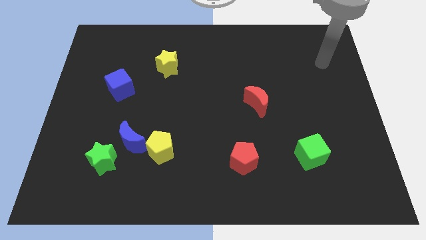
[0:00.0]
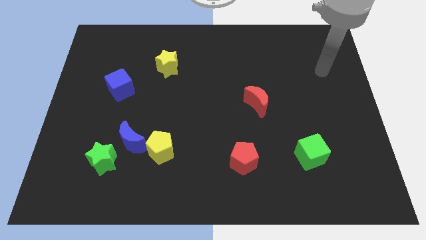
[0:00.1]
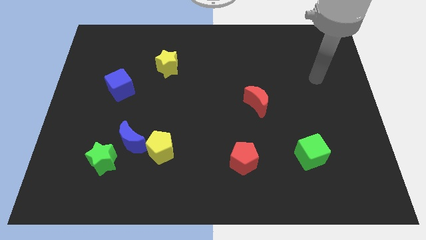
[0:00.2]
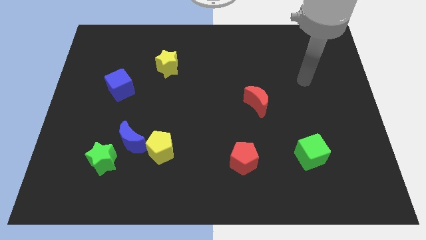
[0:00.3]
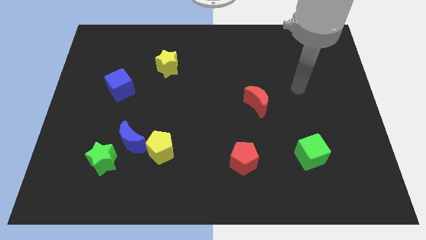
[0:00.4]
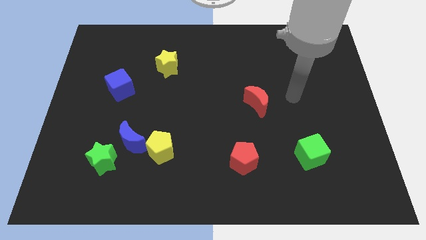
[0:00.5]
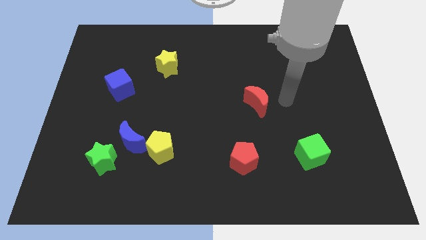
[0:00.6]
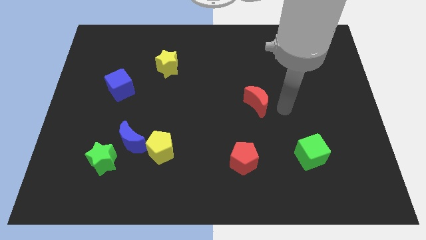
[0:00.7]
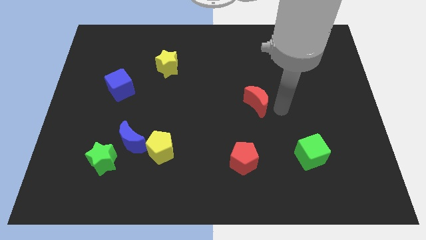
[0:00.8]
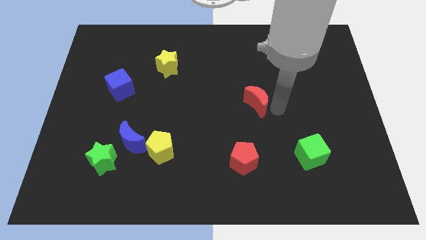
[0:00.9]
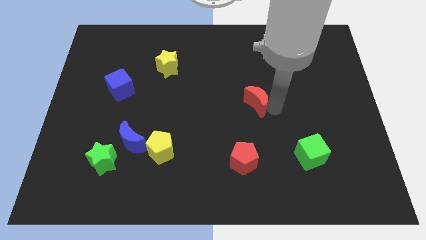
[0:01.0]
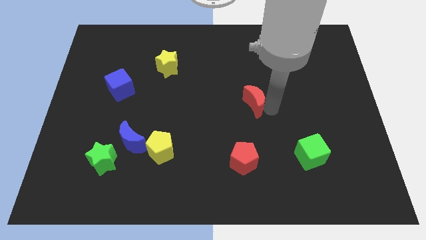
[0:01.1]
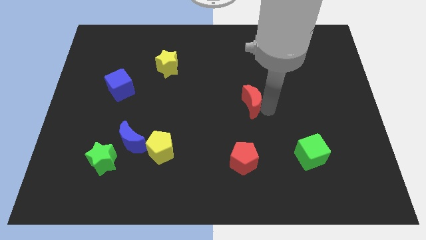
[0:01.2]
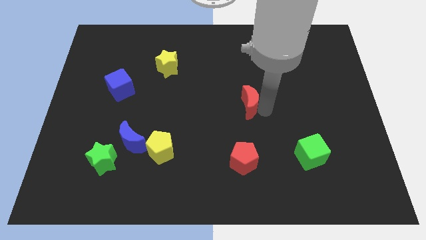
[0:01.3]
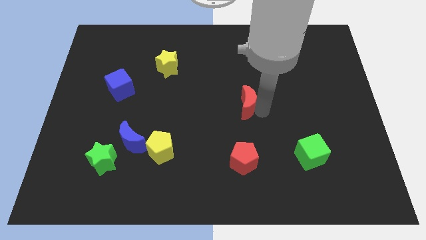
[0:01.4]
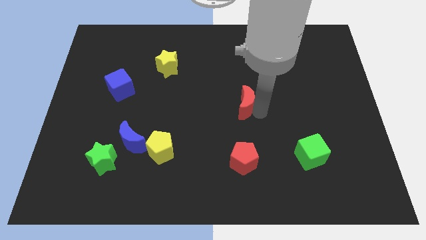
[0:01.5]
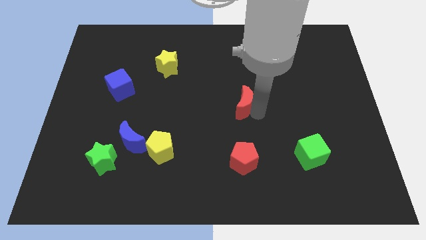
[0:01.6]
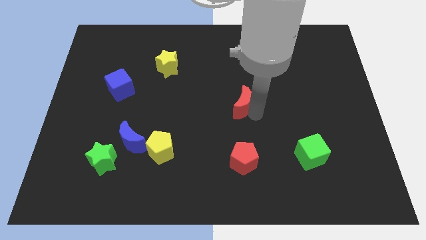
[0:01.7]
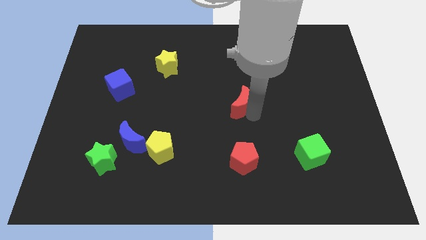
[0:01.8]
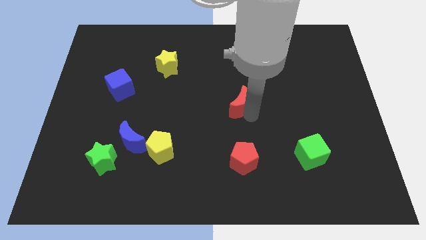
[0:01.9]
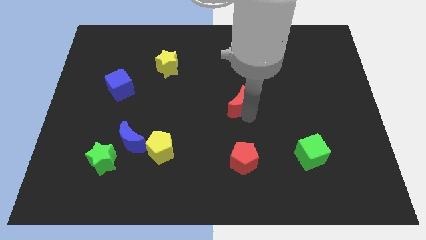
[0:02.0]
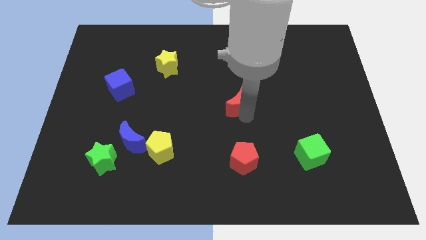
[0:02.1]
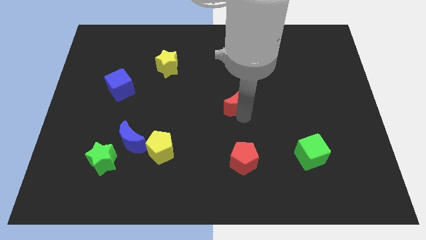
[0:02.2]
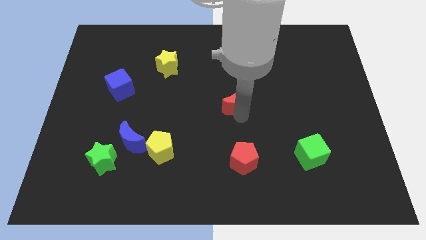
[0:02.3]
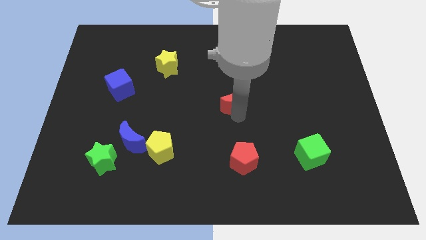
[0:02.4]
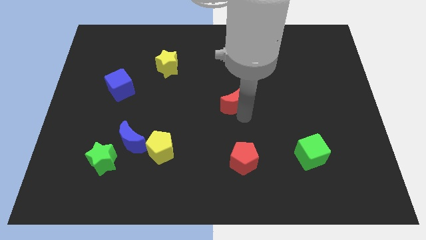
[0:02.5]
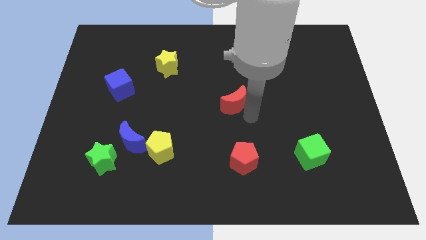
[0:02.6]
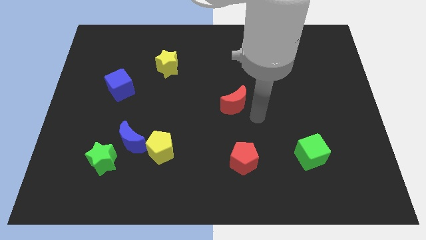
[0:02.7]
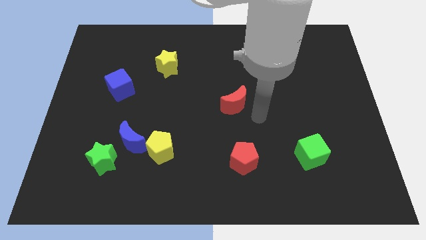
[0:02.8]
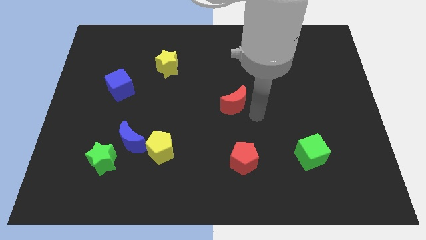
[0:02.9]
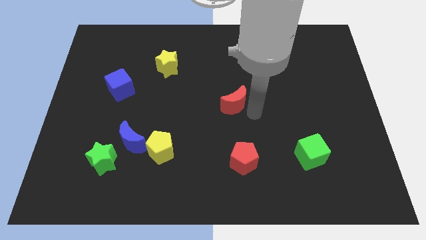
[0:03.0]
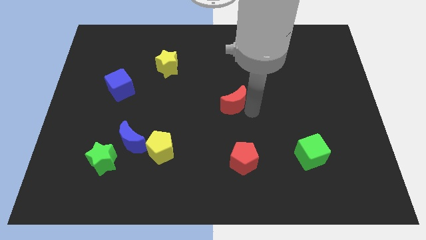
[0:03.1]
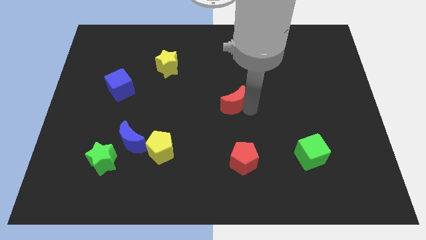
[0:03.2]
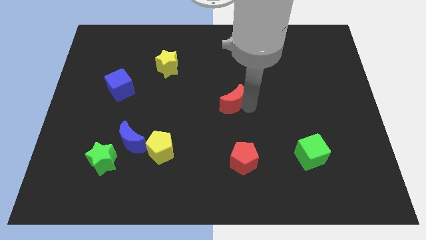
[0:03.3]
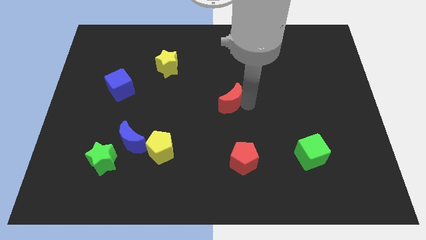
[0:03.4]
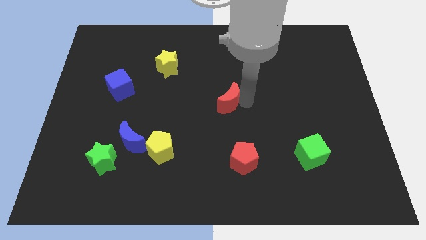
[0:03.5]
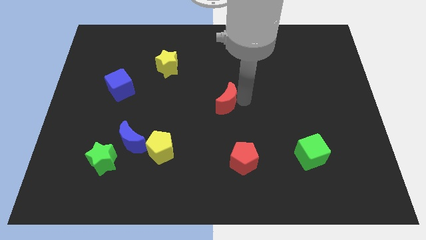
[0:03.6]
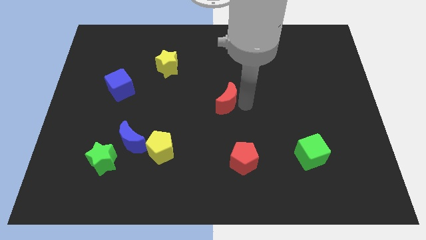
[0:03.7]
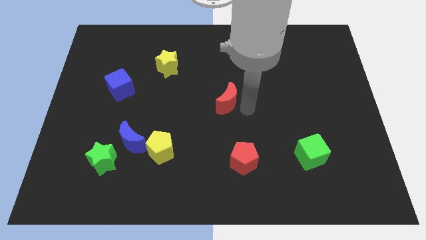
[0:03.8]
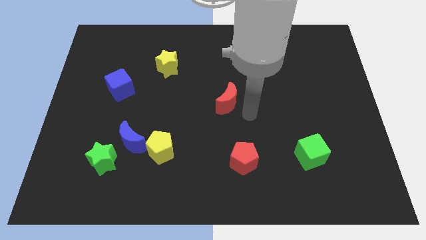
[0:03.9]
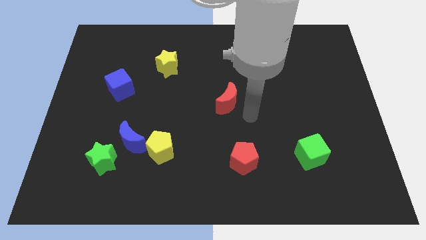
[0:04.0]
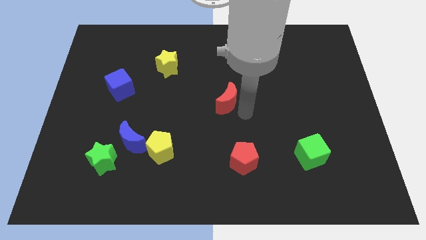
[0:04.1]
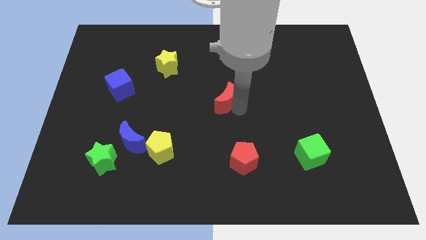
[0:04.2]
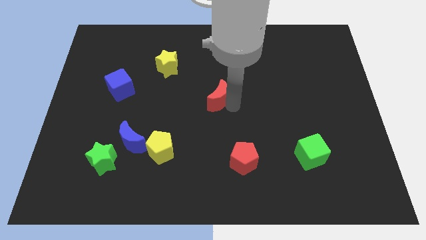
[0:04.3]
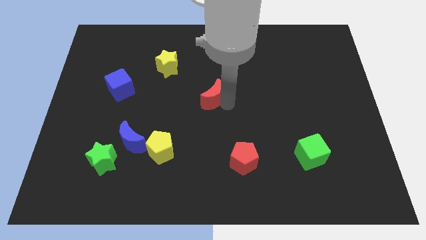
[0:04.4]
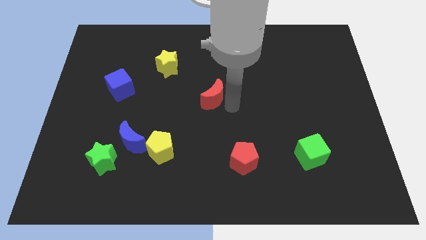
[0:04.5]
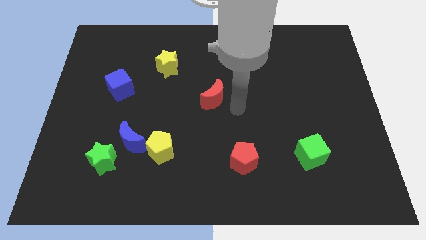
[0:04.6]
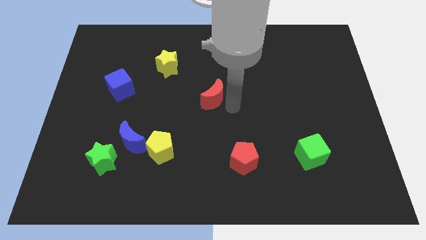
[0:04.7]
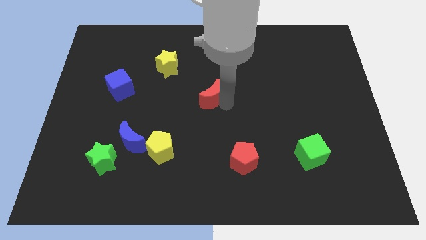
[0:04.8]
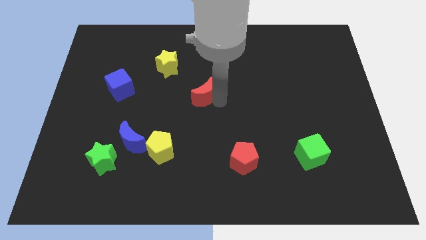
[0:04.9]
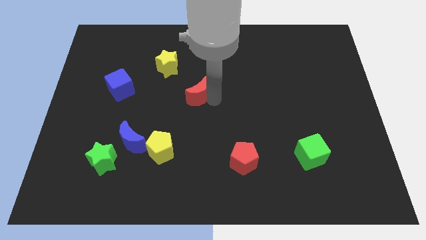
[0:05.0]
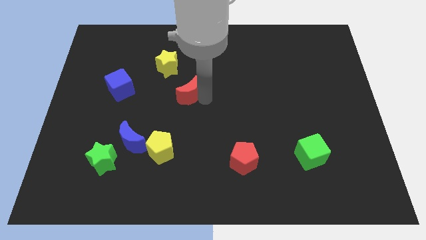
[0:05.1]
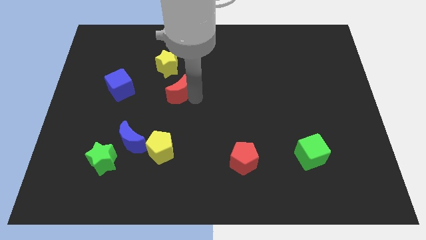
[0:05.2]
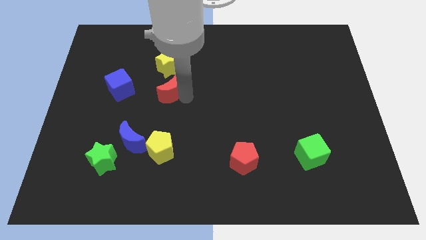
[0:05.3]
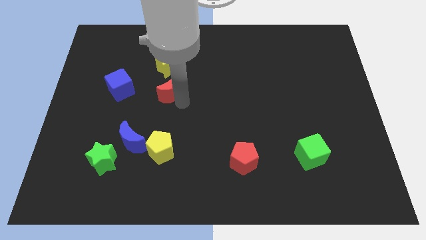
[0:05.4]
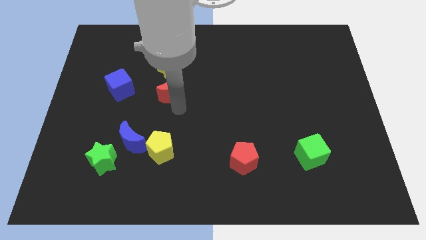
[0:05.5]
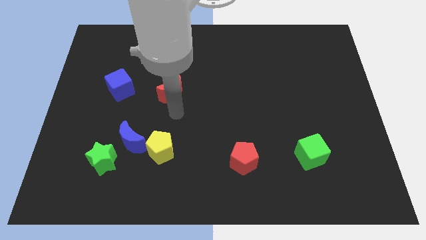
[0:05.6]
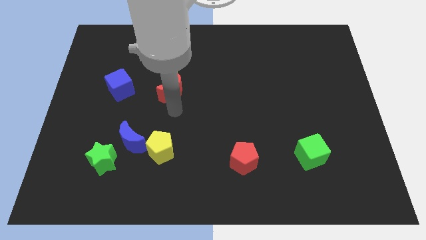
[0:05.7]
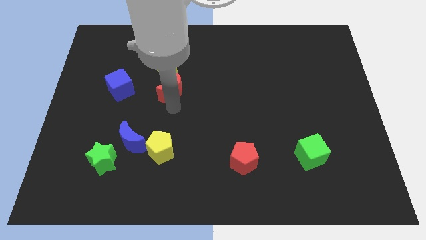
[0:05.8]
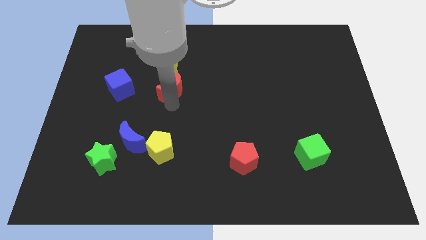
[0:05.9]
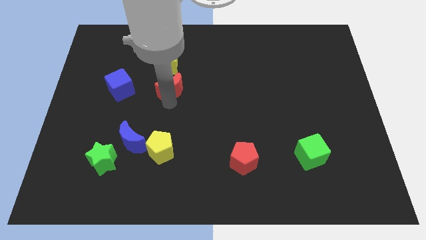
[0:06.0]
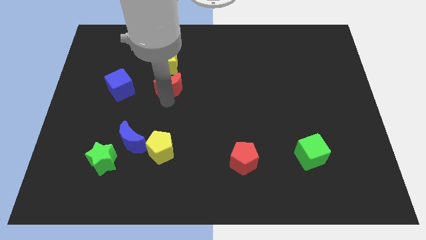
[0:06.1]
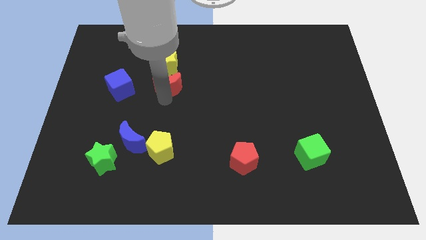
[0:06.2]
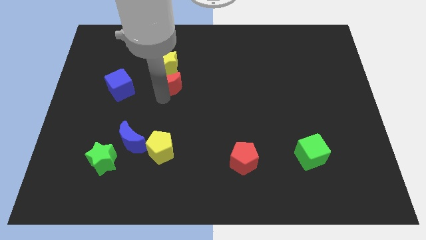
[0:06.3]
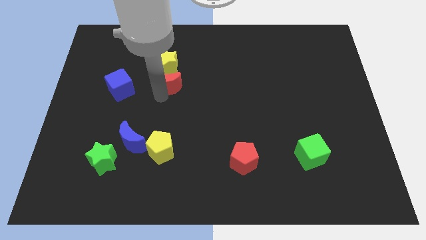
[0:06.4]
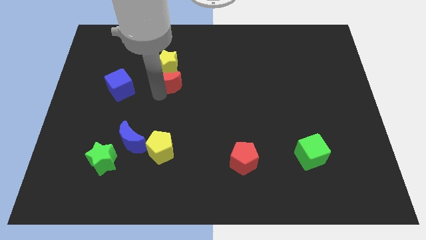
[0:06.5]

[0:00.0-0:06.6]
push the red moon to the yellow star

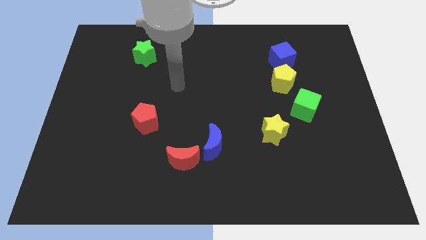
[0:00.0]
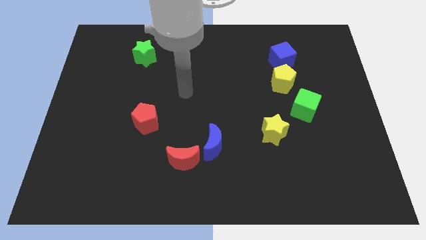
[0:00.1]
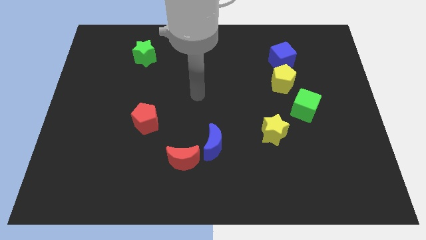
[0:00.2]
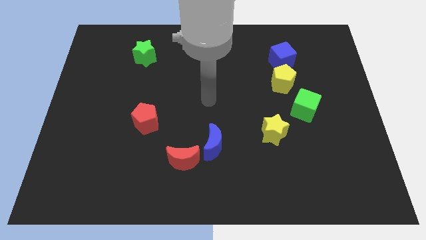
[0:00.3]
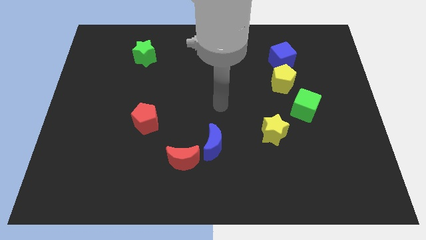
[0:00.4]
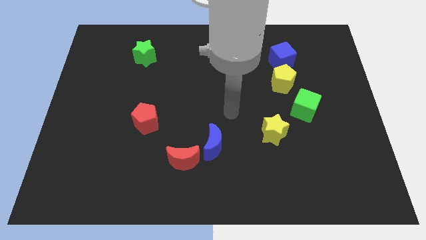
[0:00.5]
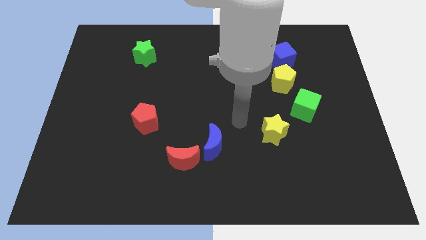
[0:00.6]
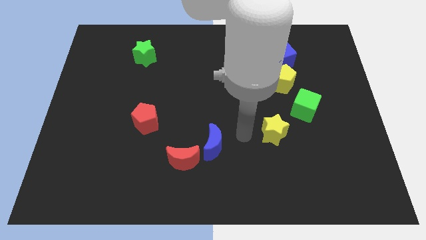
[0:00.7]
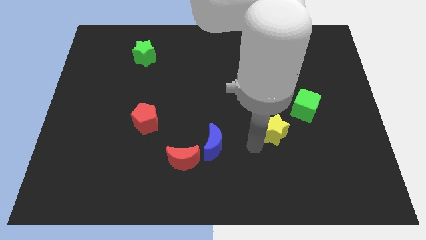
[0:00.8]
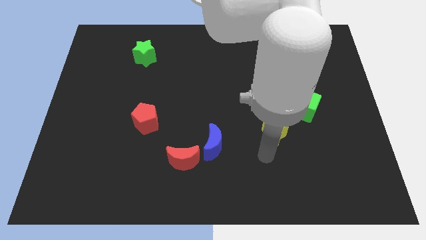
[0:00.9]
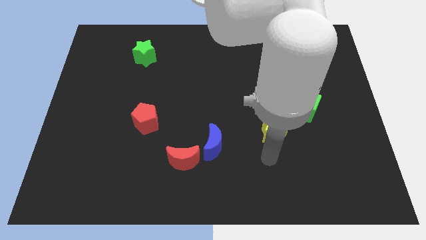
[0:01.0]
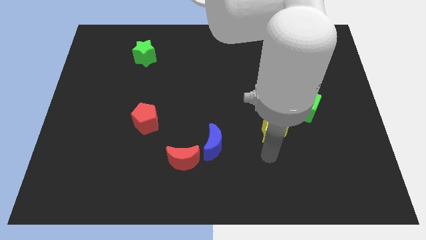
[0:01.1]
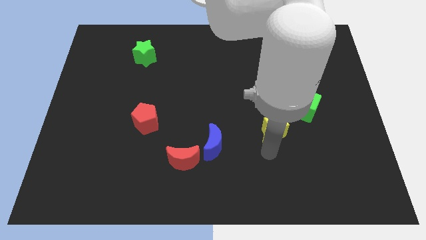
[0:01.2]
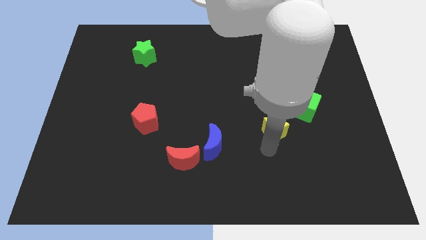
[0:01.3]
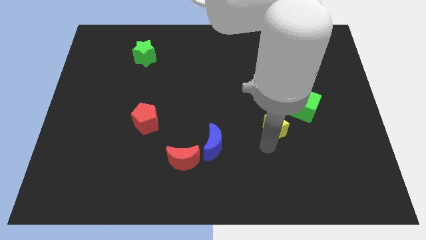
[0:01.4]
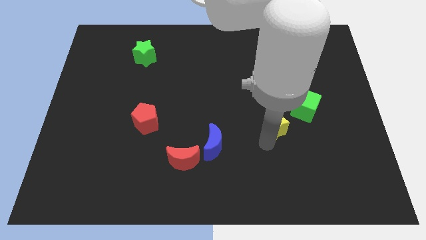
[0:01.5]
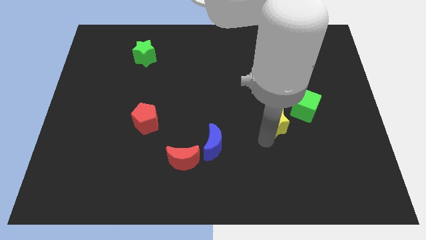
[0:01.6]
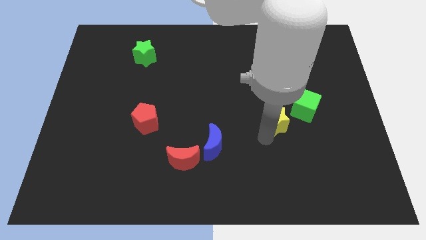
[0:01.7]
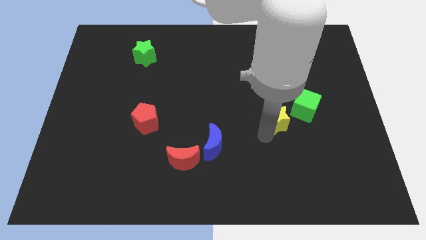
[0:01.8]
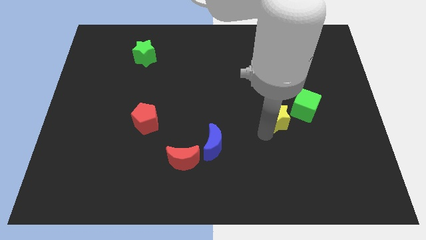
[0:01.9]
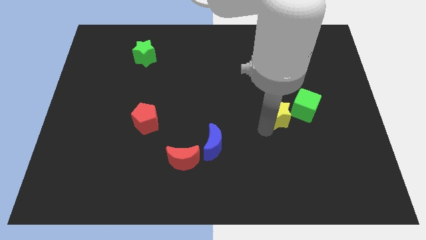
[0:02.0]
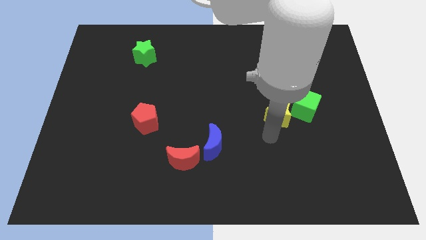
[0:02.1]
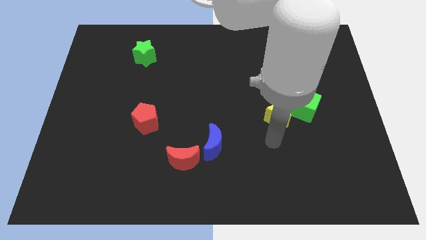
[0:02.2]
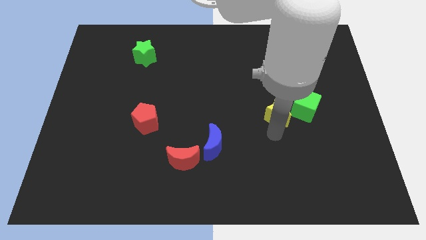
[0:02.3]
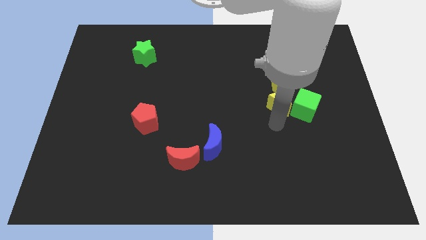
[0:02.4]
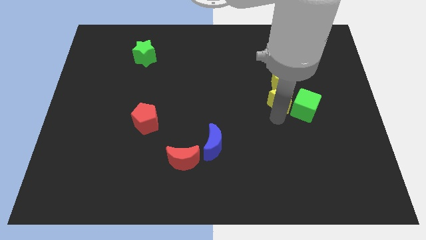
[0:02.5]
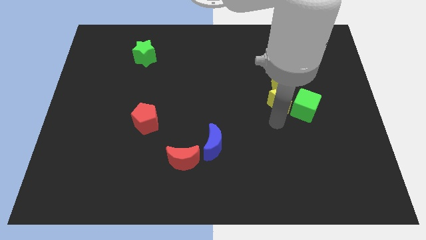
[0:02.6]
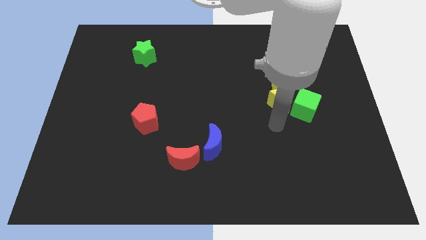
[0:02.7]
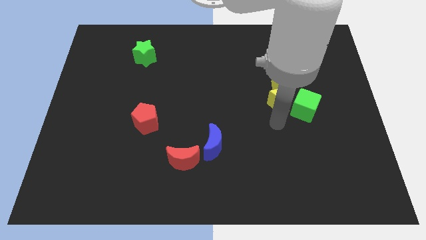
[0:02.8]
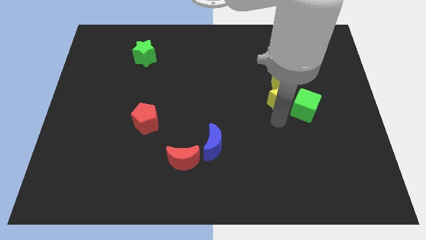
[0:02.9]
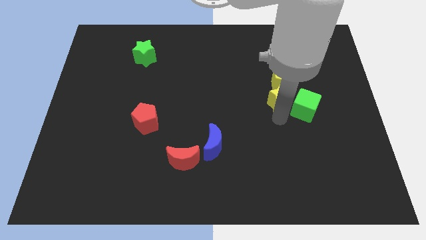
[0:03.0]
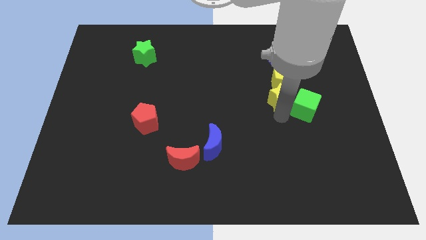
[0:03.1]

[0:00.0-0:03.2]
slide the yellow star next to the yellow pentagon
